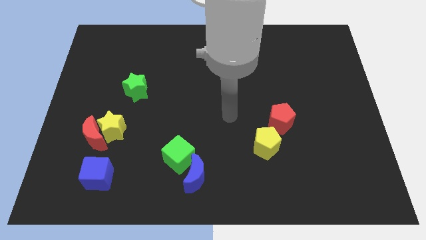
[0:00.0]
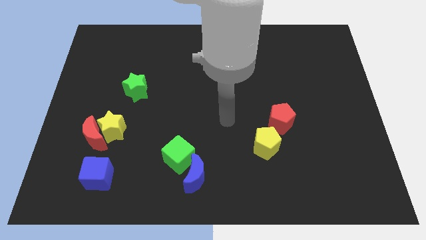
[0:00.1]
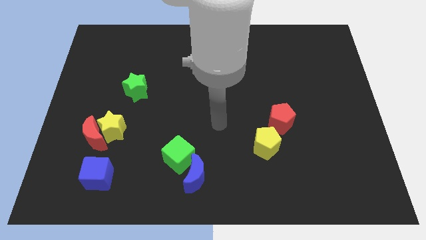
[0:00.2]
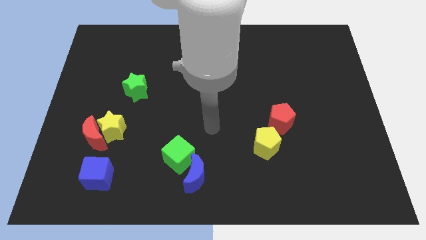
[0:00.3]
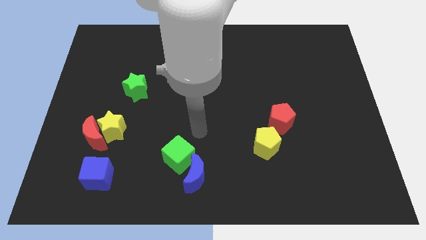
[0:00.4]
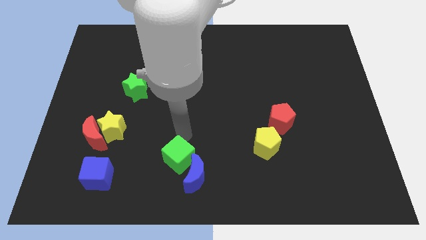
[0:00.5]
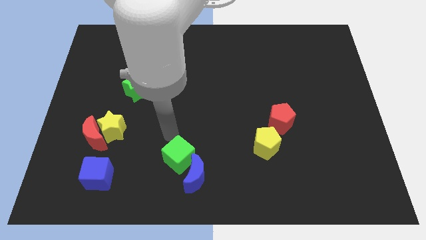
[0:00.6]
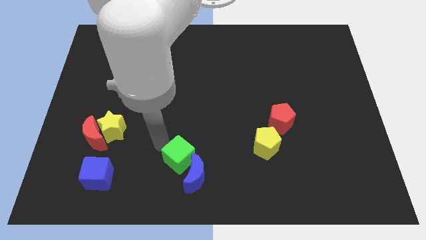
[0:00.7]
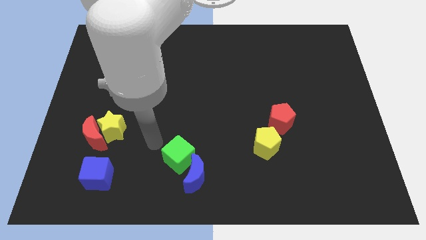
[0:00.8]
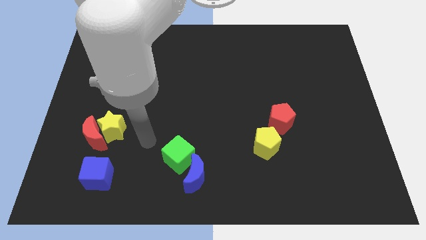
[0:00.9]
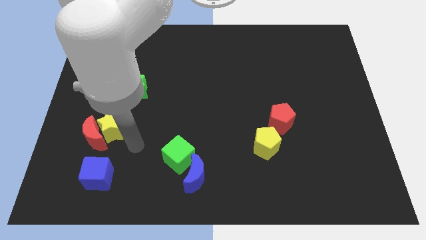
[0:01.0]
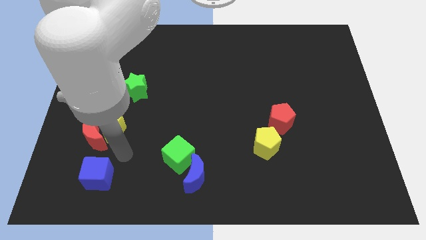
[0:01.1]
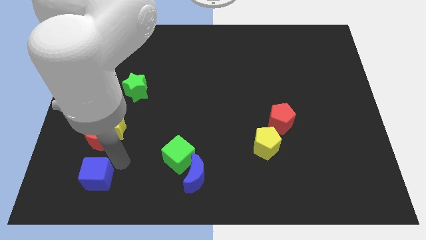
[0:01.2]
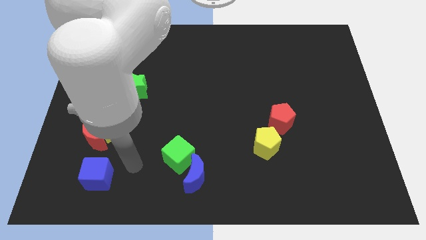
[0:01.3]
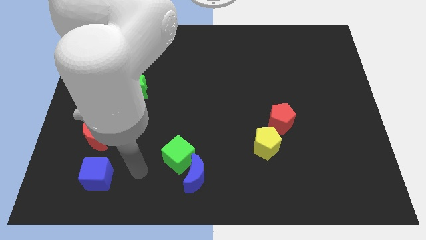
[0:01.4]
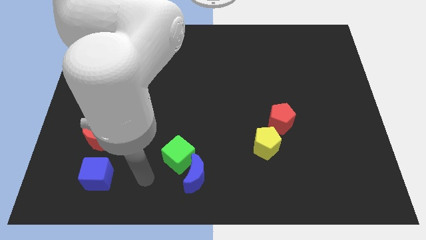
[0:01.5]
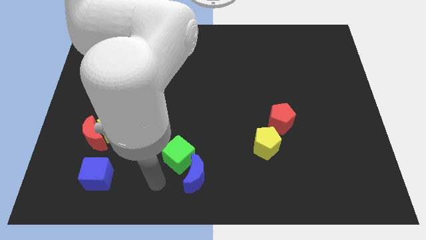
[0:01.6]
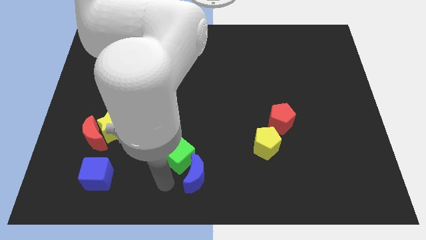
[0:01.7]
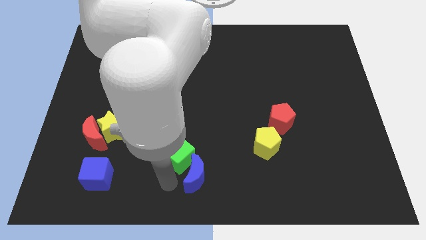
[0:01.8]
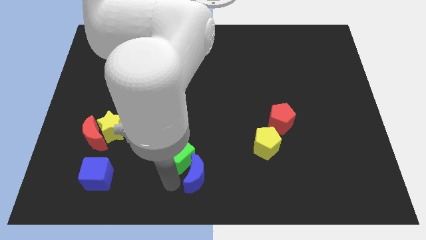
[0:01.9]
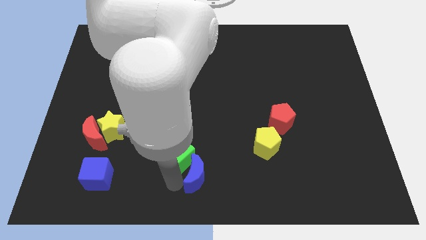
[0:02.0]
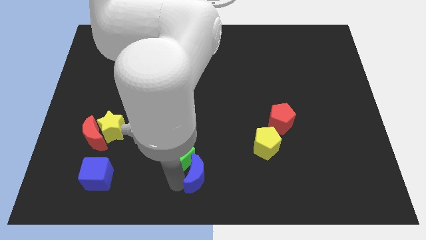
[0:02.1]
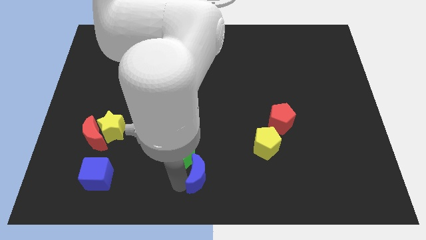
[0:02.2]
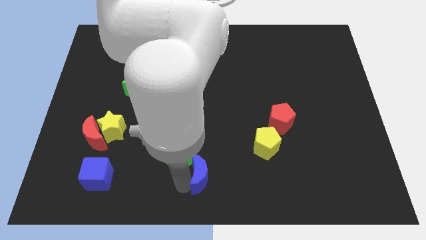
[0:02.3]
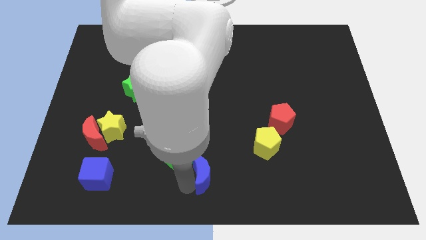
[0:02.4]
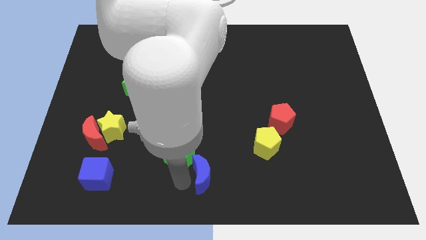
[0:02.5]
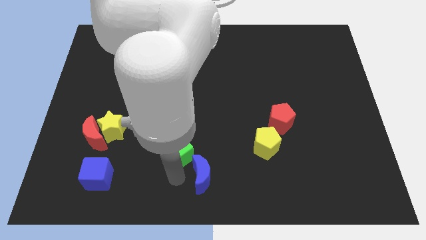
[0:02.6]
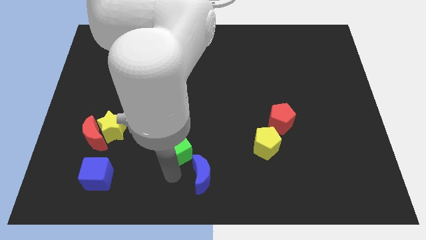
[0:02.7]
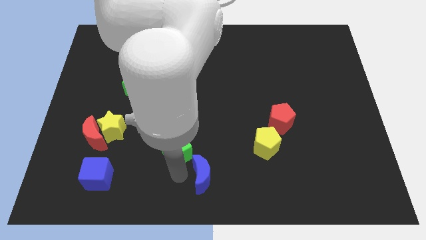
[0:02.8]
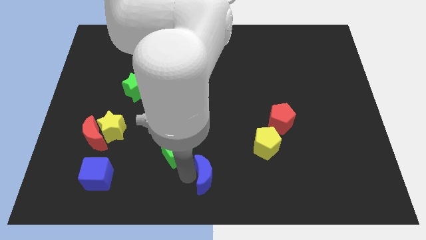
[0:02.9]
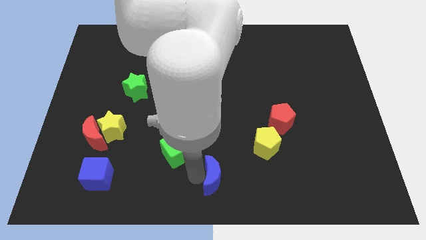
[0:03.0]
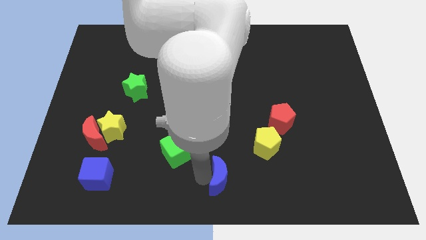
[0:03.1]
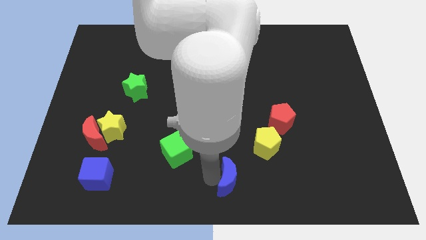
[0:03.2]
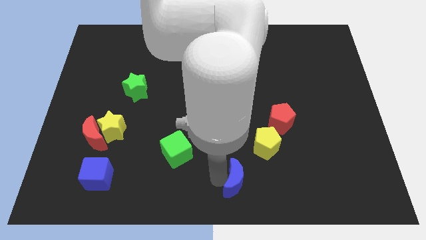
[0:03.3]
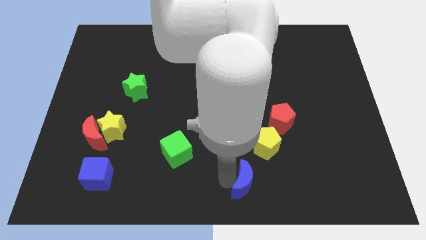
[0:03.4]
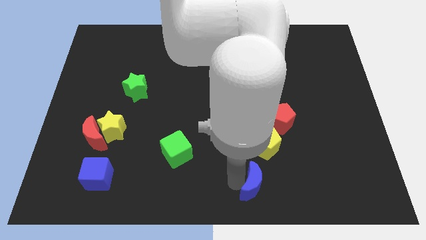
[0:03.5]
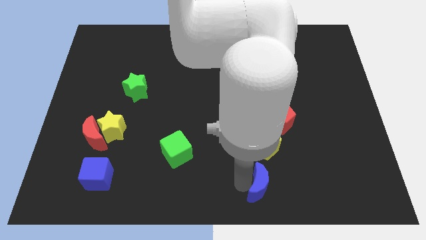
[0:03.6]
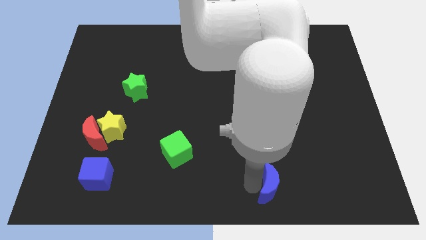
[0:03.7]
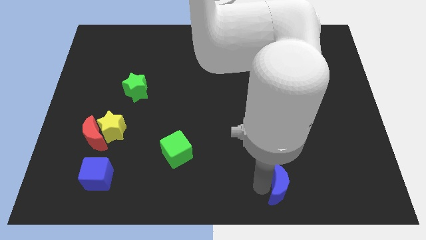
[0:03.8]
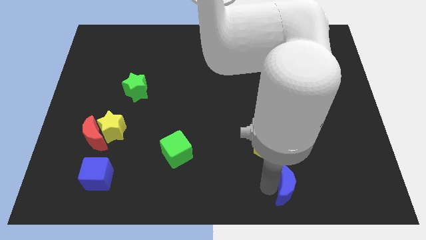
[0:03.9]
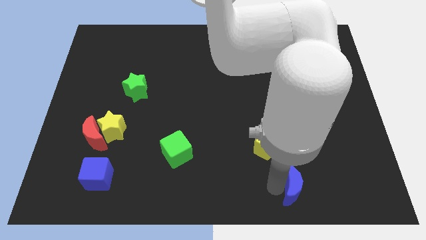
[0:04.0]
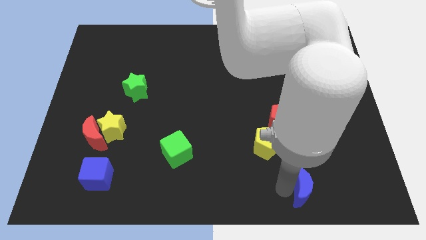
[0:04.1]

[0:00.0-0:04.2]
push the blue moon right

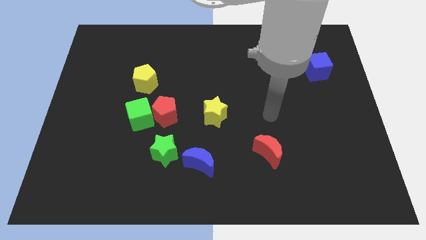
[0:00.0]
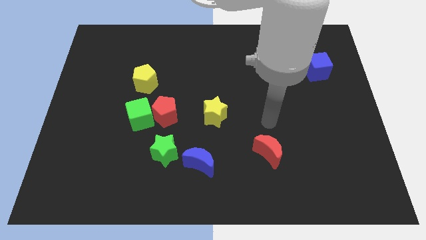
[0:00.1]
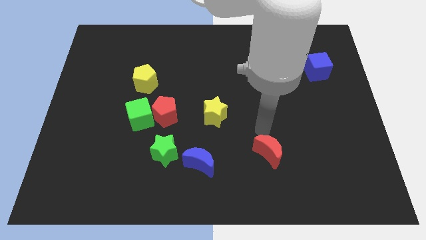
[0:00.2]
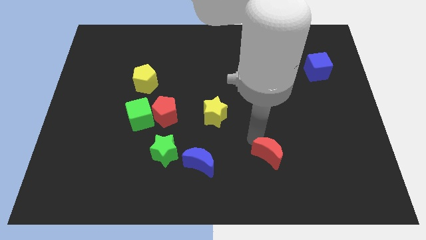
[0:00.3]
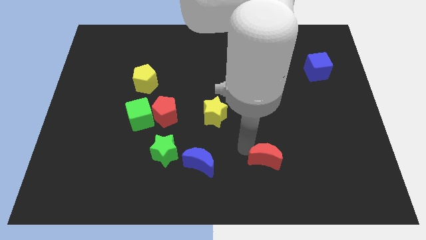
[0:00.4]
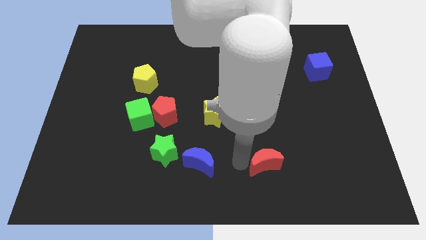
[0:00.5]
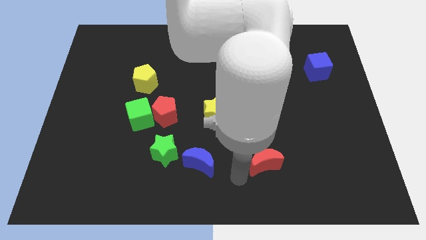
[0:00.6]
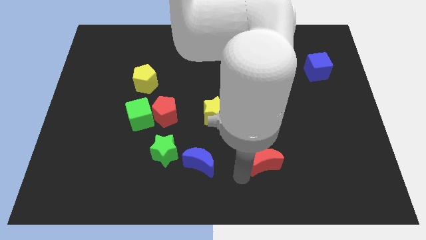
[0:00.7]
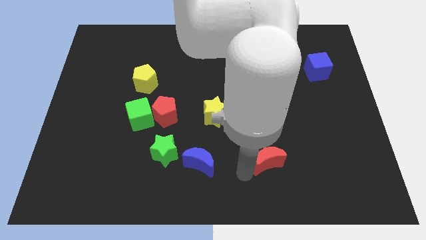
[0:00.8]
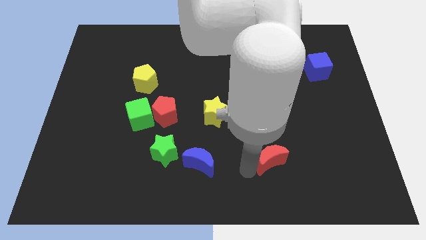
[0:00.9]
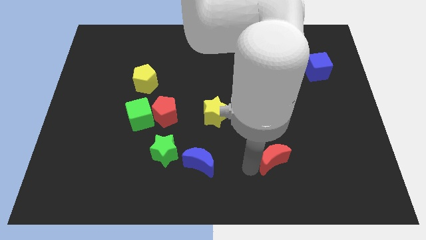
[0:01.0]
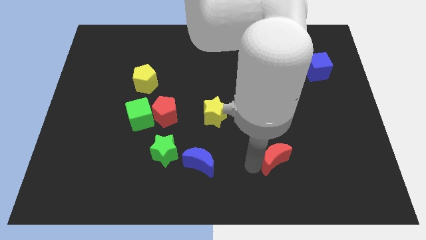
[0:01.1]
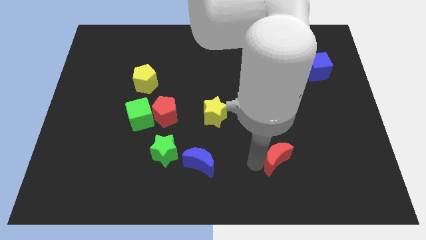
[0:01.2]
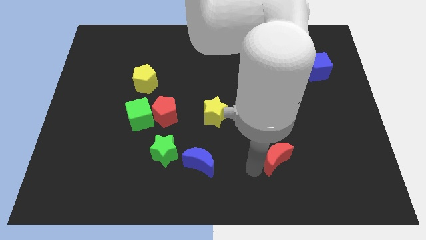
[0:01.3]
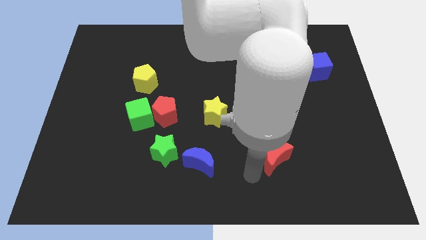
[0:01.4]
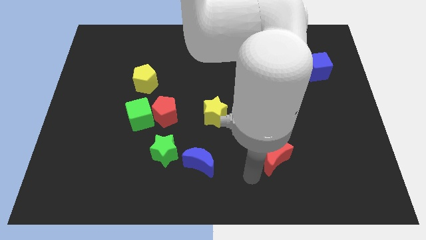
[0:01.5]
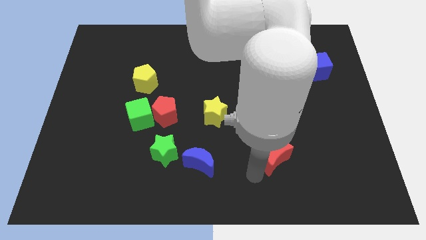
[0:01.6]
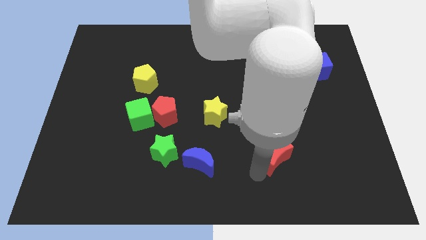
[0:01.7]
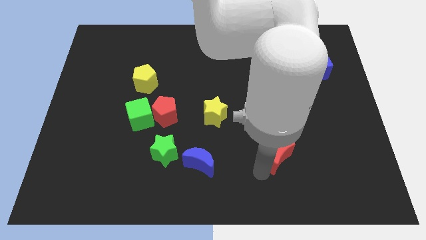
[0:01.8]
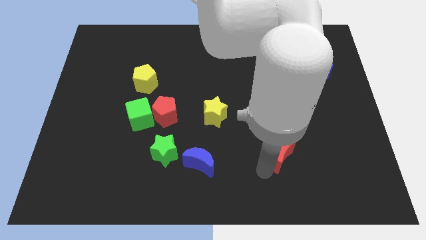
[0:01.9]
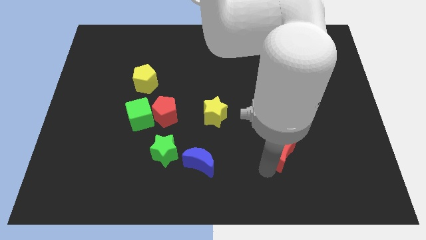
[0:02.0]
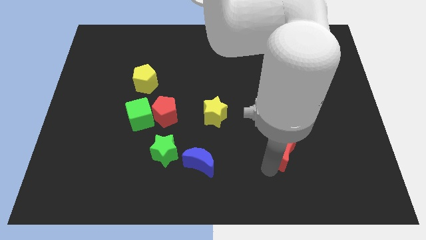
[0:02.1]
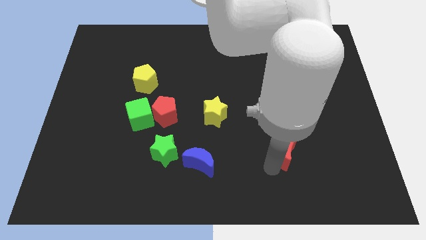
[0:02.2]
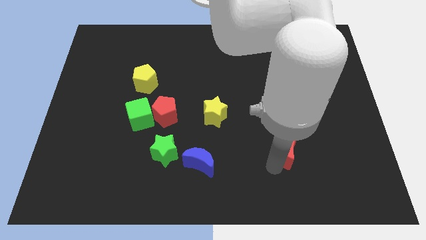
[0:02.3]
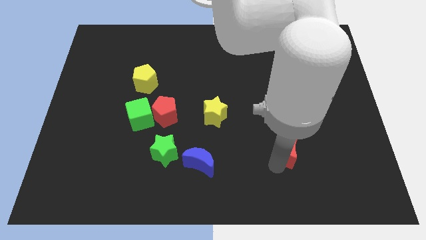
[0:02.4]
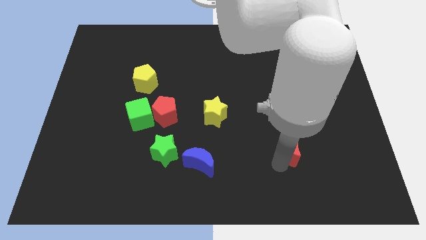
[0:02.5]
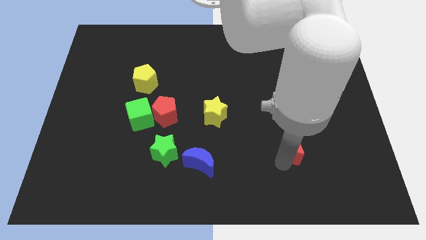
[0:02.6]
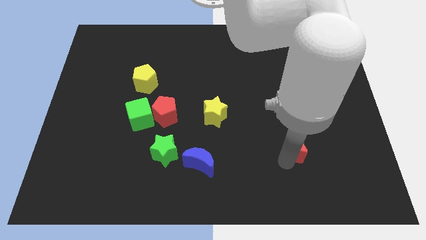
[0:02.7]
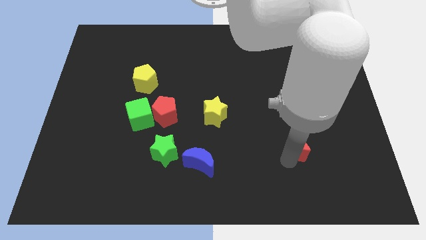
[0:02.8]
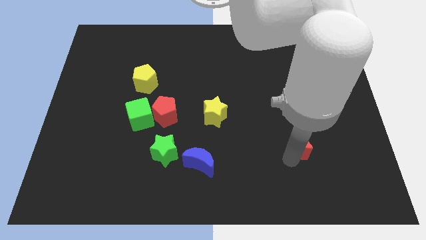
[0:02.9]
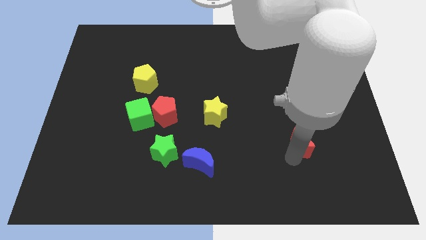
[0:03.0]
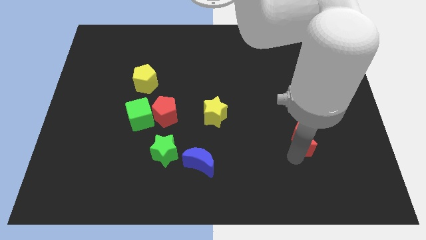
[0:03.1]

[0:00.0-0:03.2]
slide the red moon upwards and to the right diagonally a bit

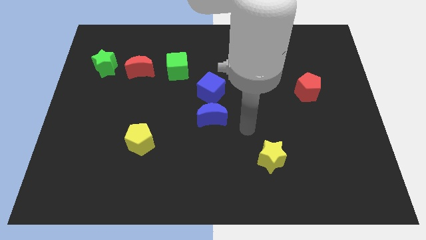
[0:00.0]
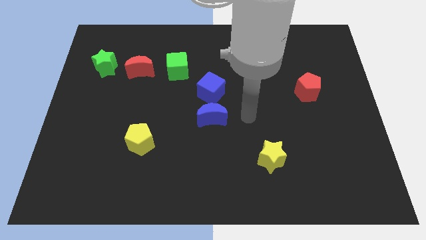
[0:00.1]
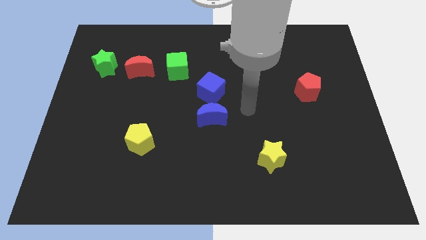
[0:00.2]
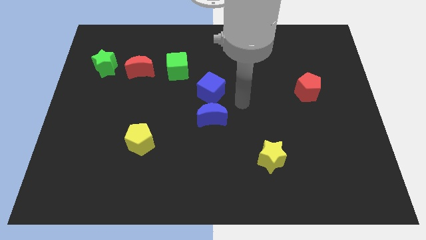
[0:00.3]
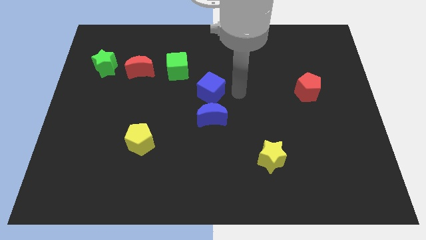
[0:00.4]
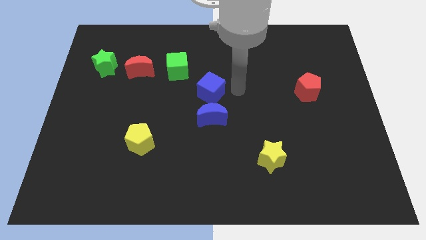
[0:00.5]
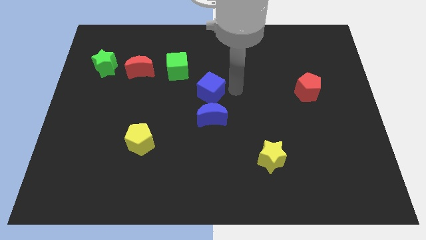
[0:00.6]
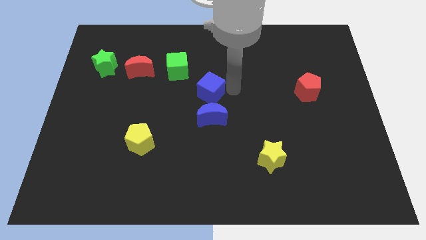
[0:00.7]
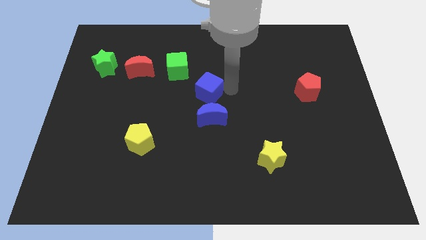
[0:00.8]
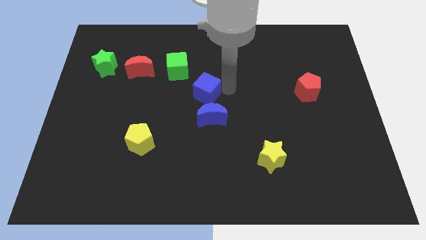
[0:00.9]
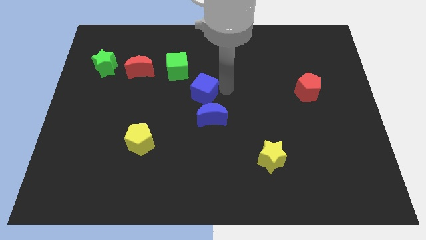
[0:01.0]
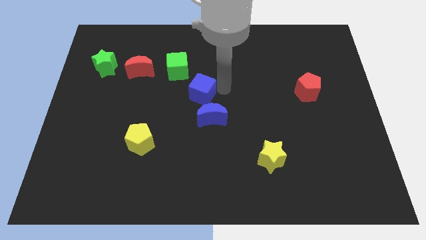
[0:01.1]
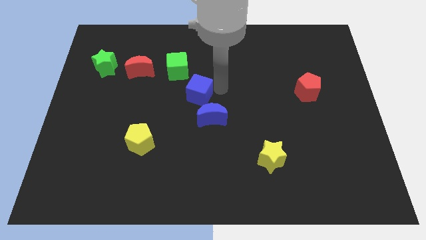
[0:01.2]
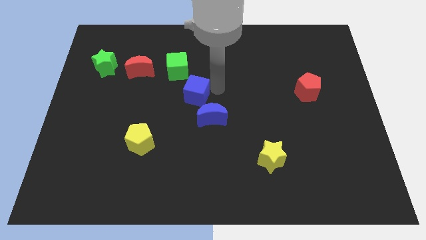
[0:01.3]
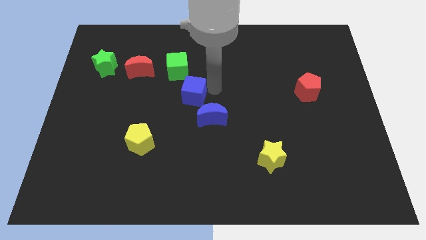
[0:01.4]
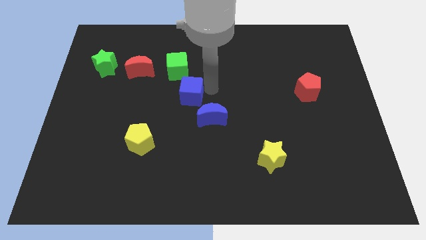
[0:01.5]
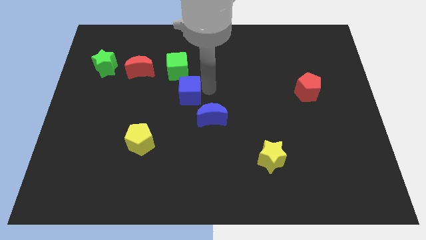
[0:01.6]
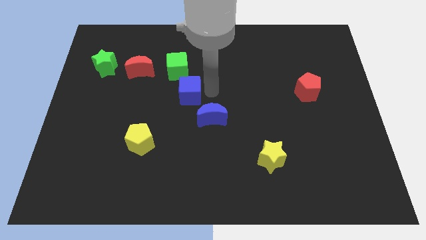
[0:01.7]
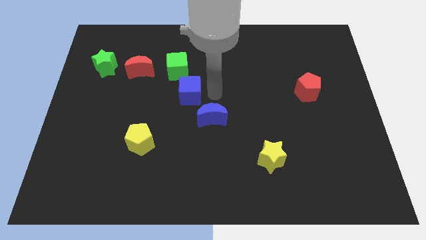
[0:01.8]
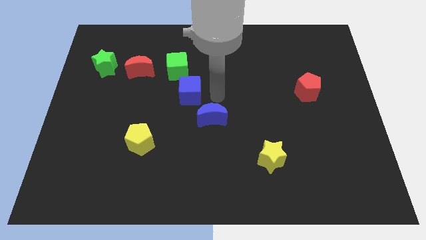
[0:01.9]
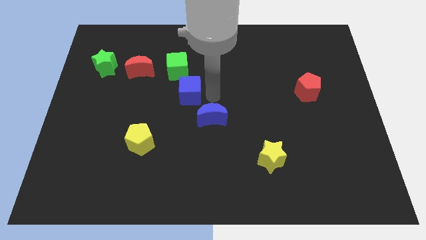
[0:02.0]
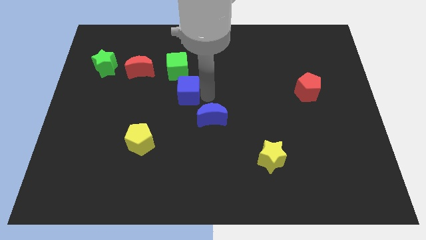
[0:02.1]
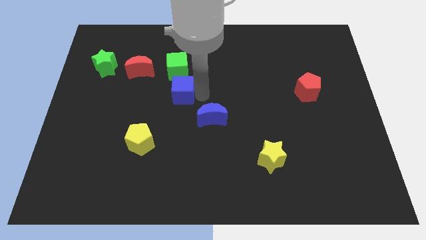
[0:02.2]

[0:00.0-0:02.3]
slightly push the blue cube left
